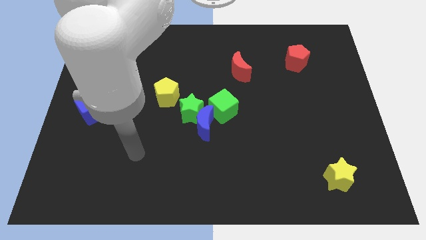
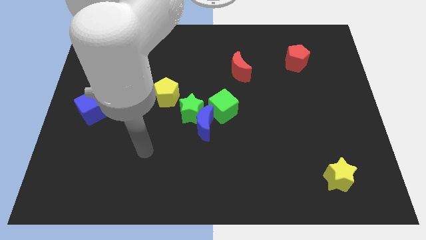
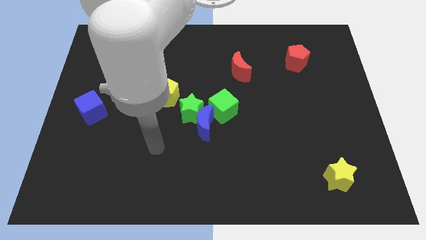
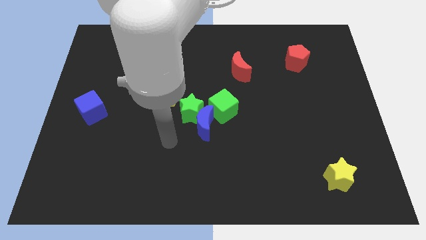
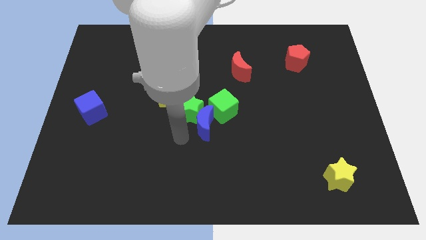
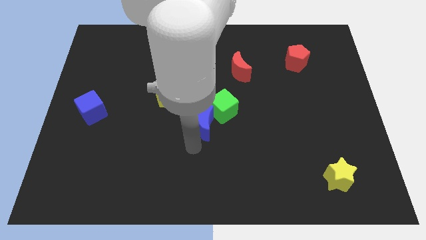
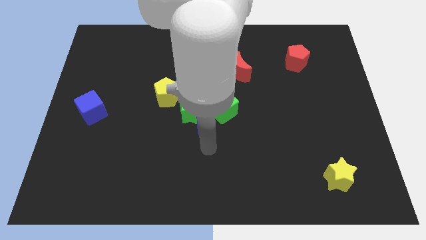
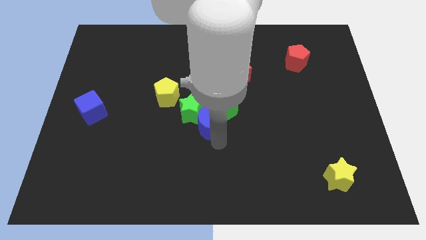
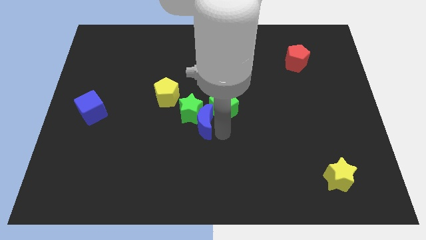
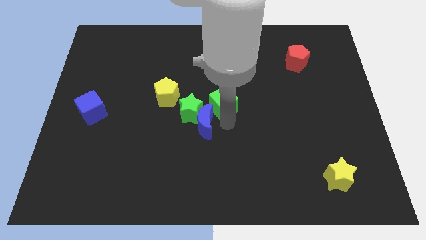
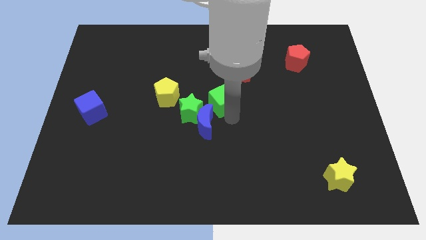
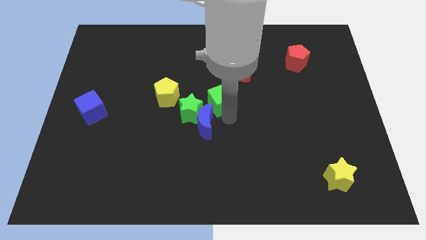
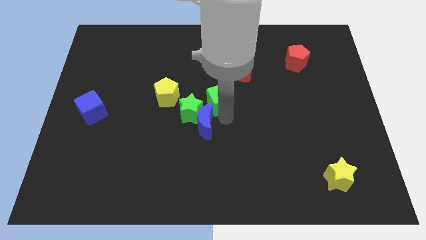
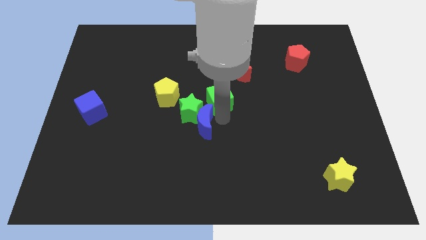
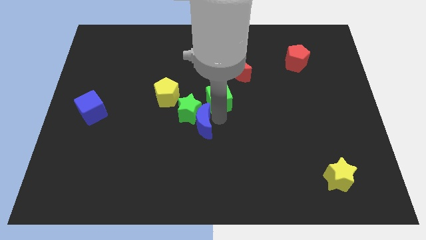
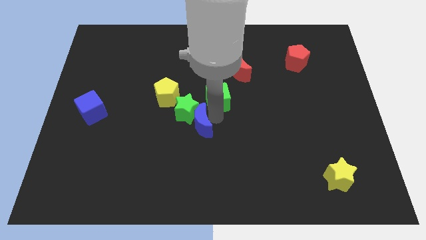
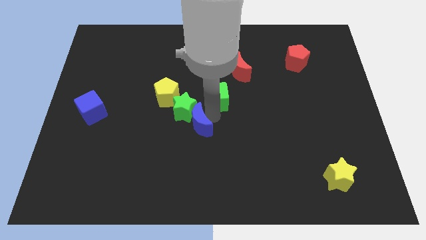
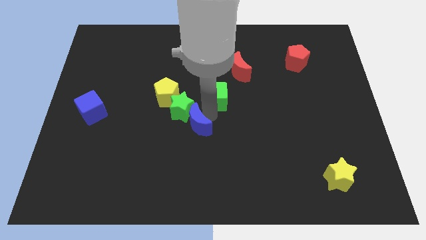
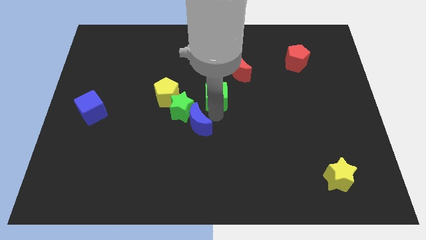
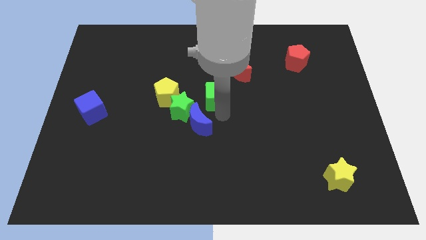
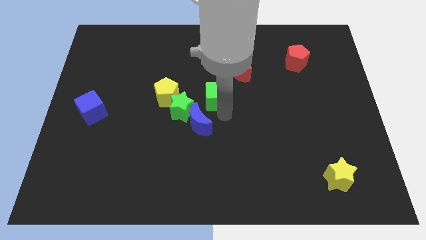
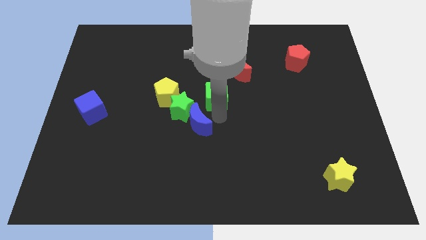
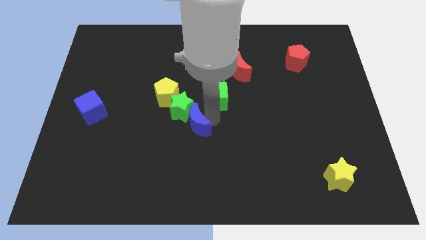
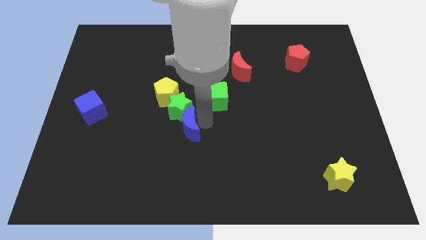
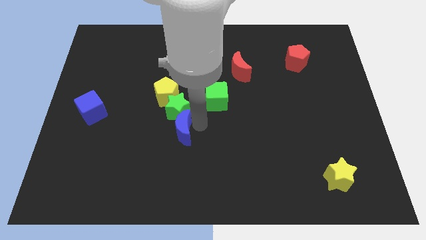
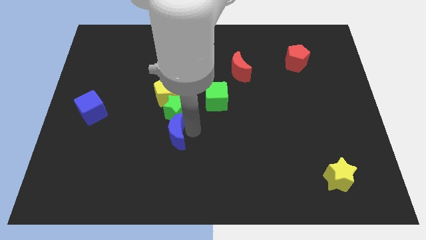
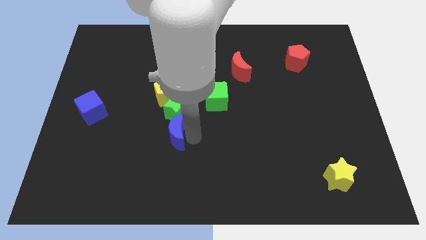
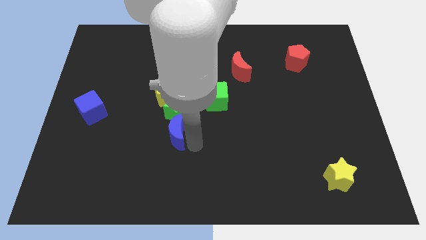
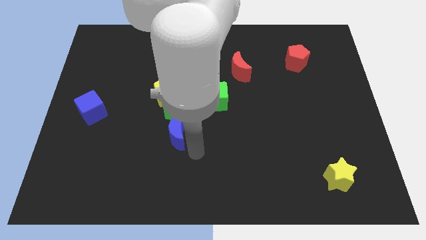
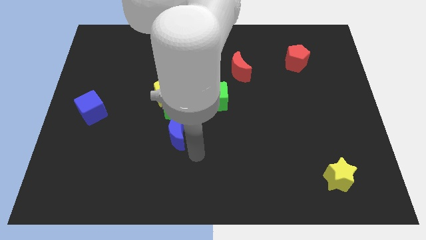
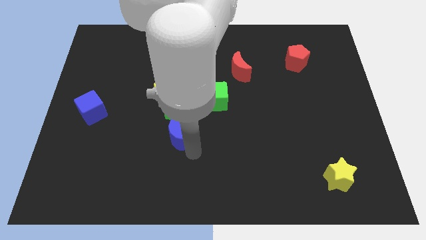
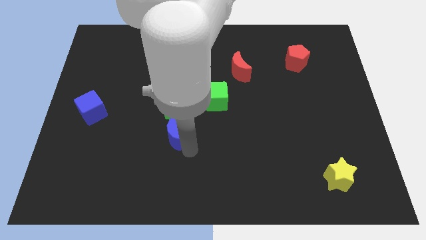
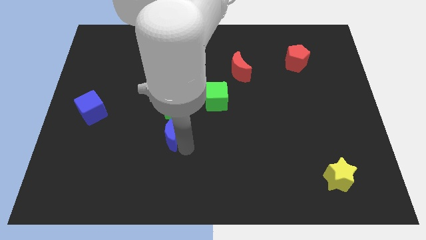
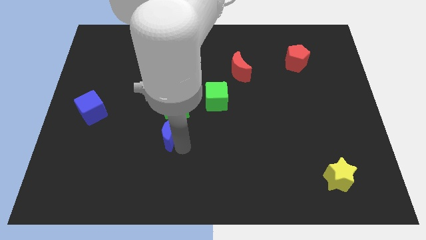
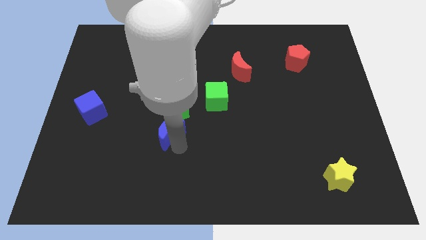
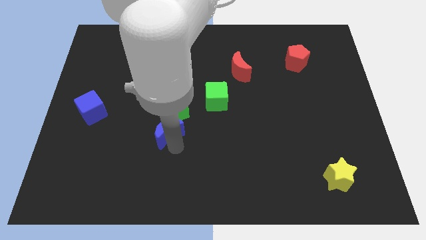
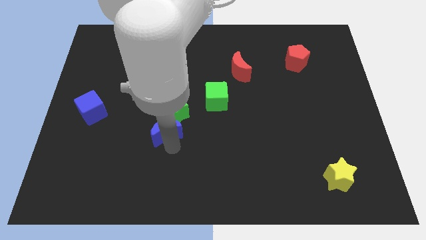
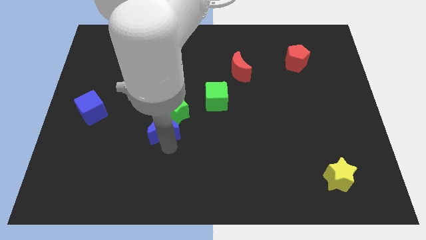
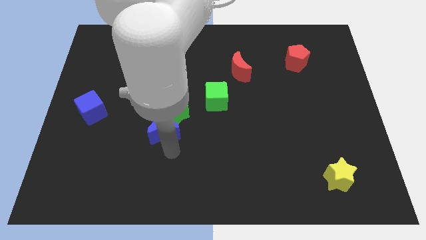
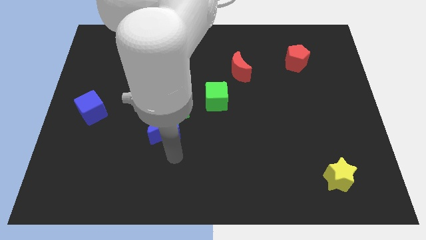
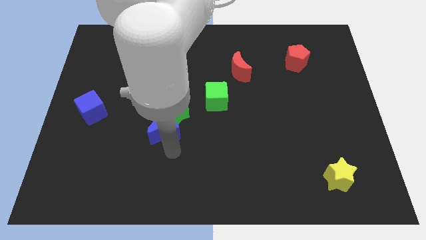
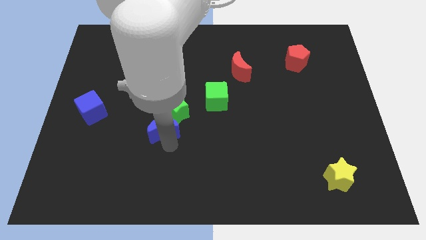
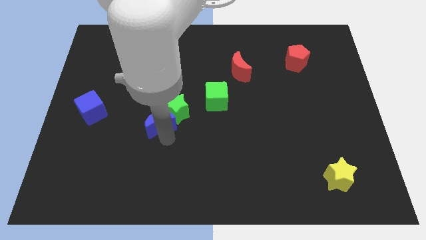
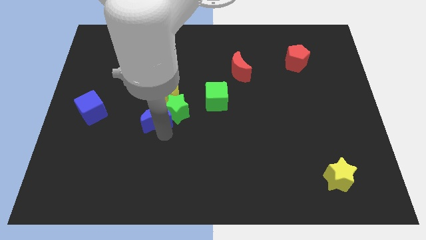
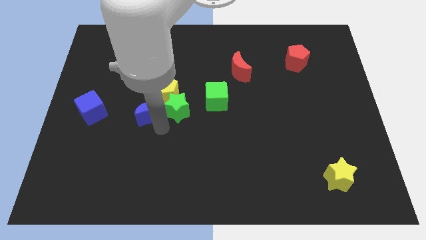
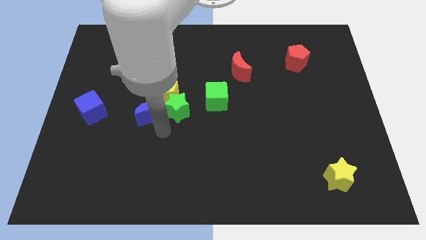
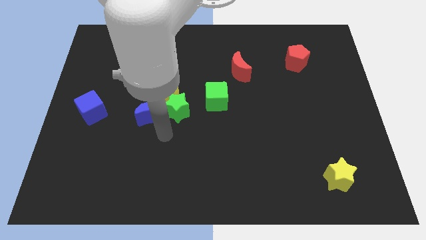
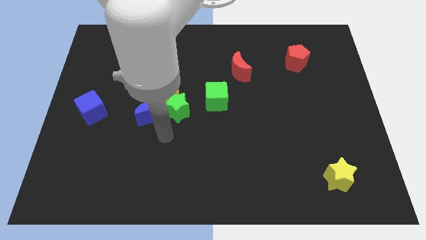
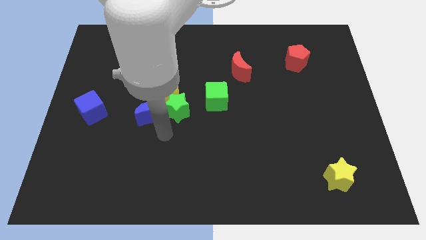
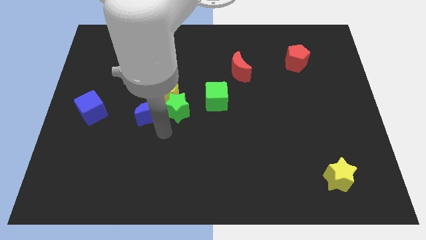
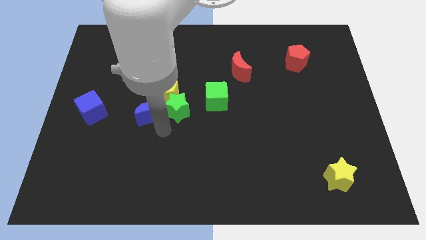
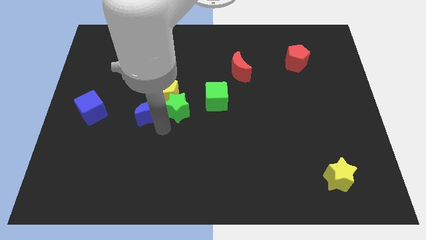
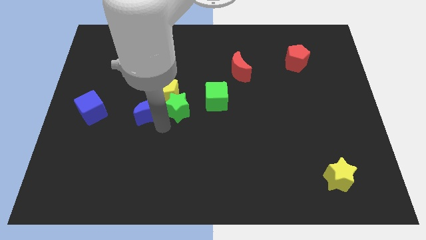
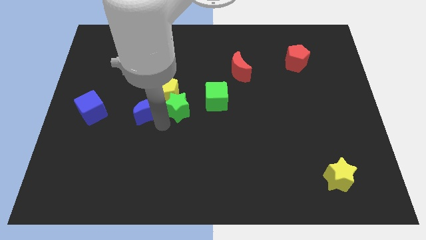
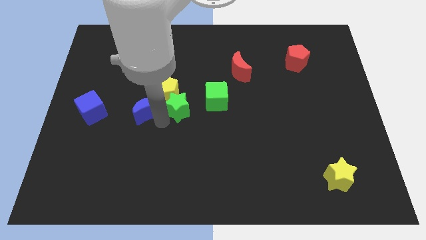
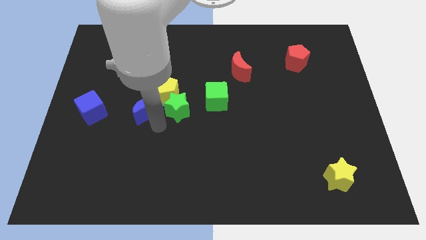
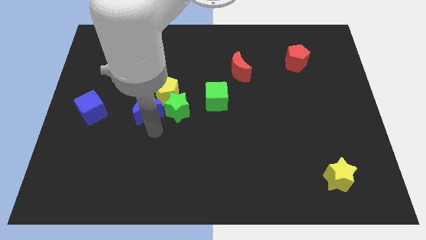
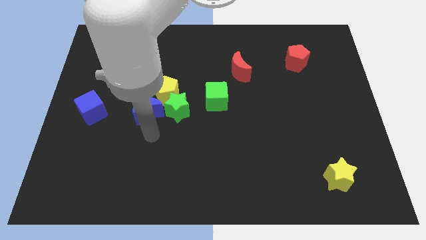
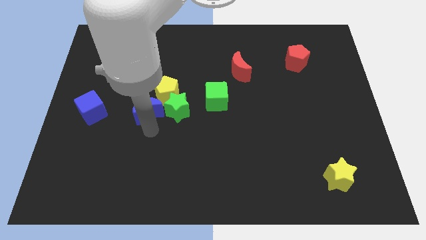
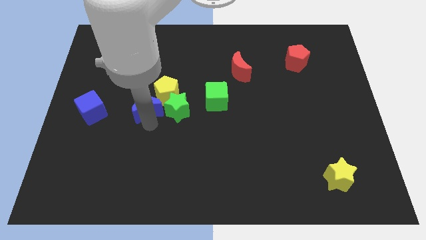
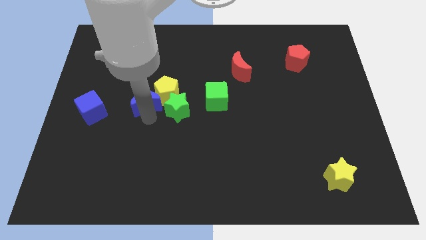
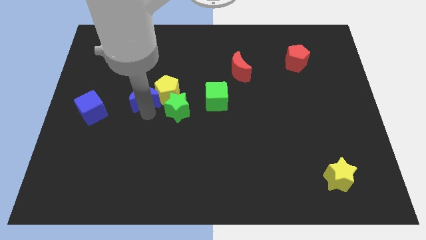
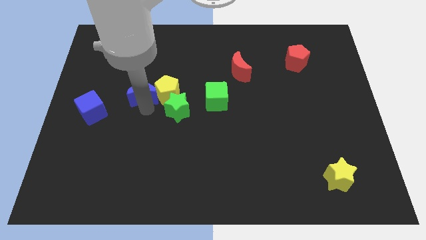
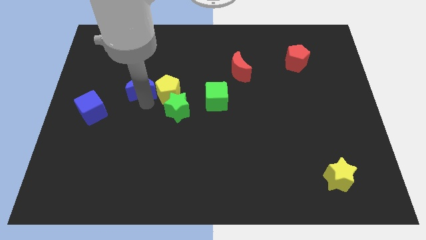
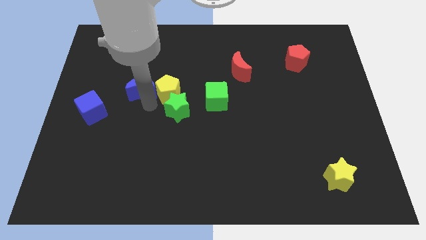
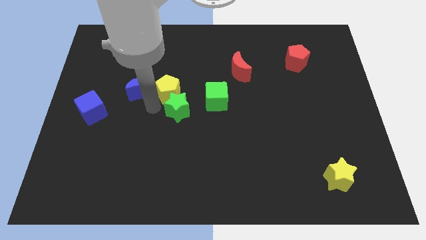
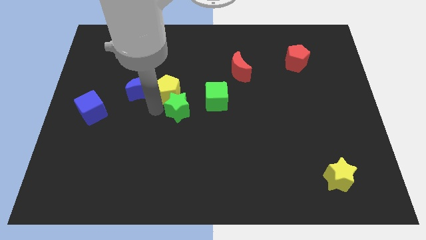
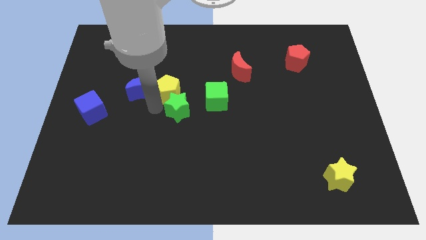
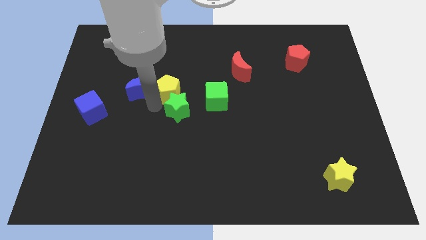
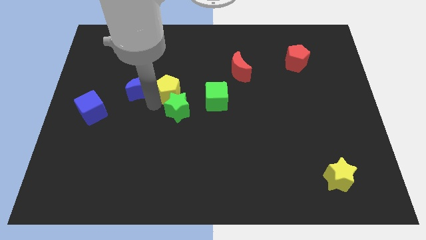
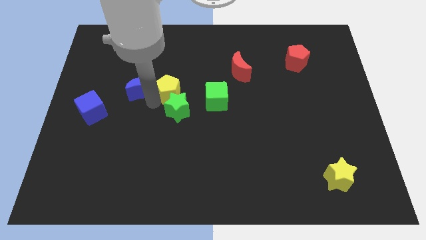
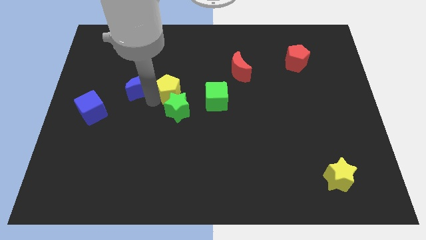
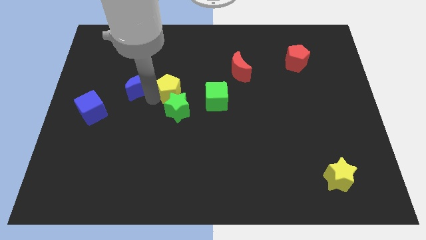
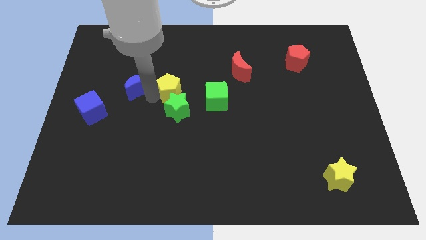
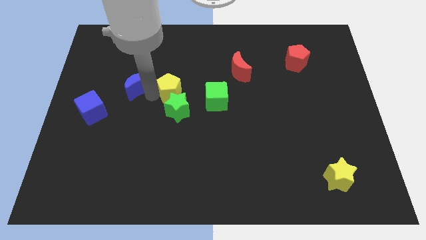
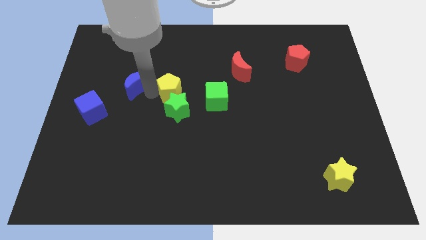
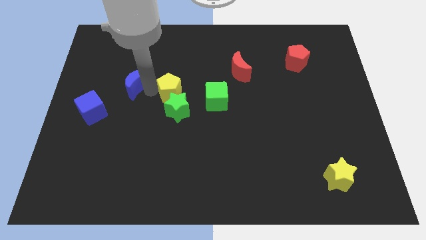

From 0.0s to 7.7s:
slide the blue moon up and to the left diagonally

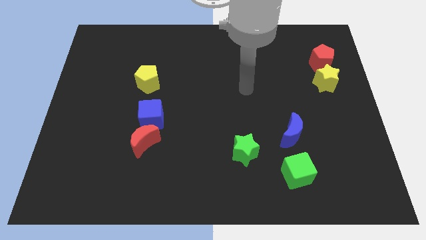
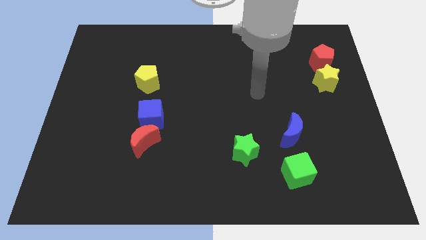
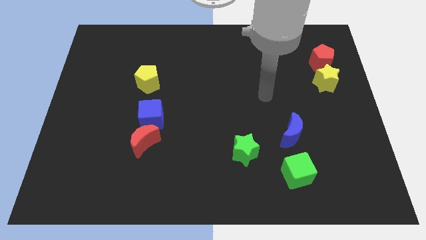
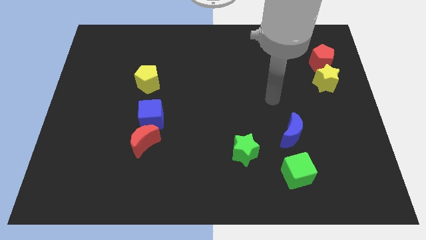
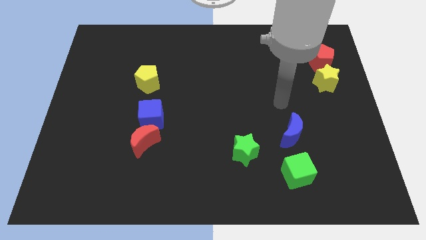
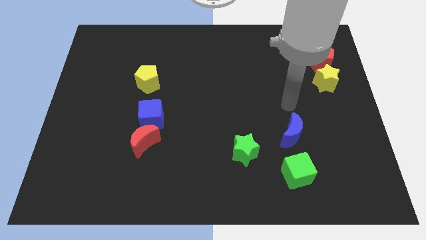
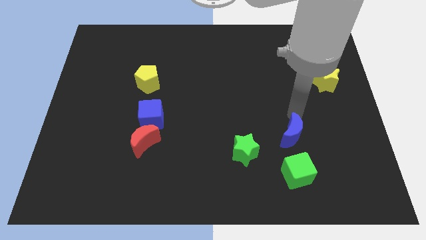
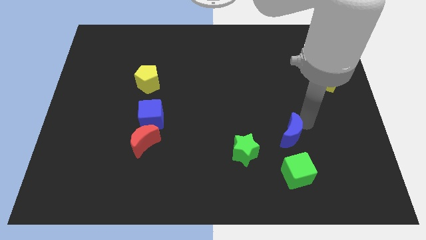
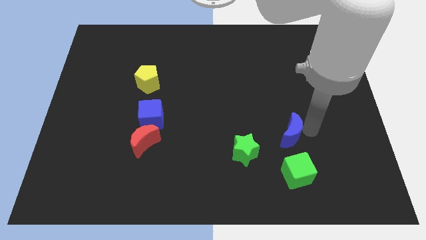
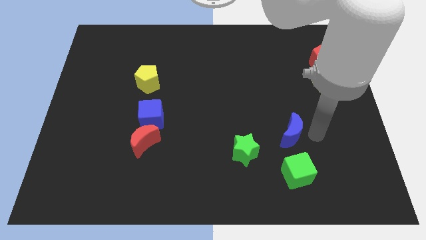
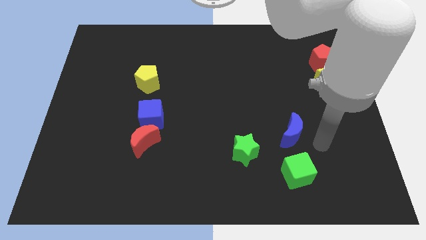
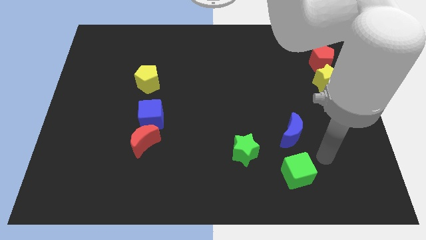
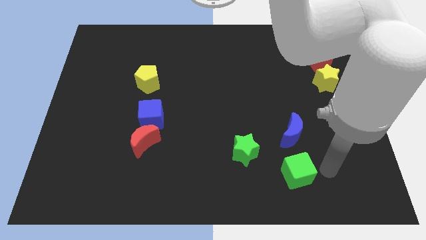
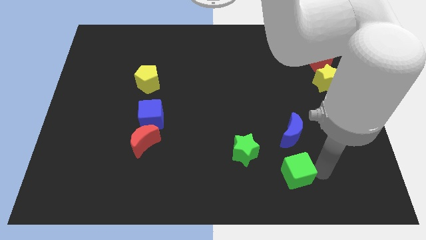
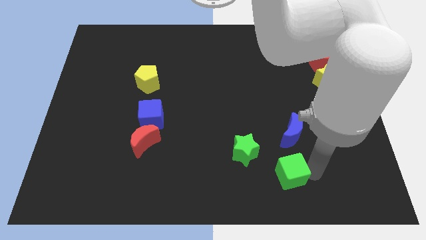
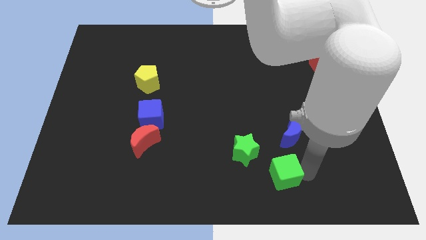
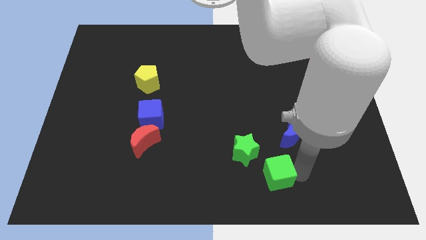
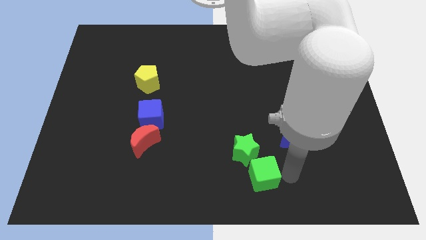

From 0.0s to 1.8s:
slightly push the green cube left
